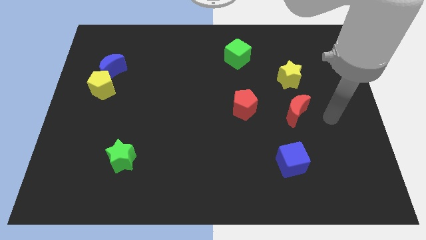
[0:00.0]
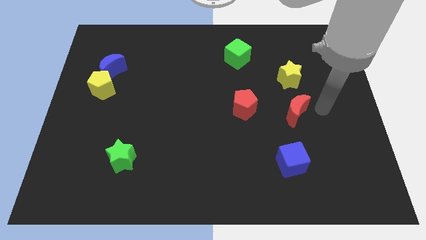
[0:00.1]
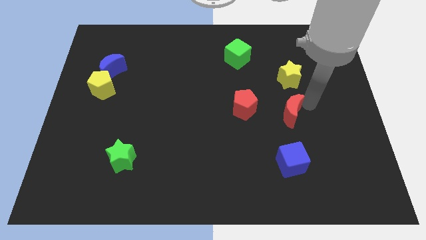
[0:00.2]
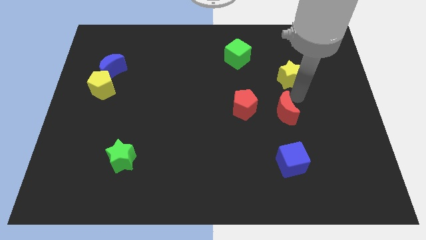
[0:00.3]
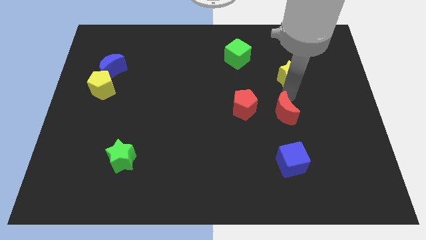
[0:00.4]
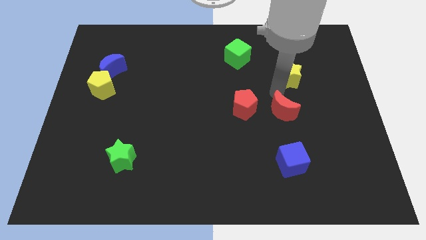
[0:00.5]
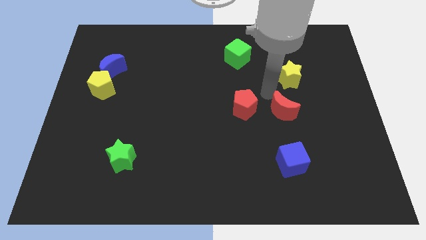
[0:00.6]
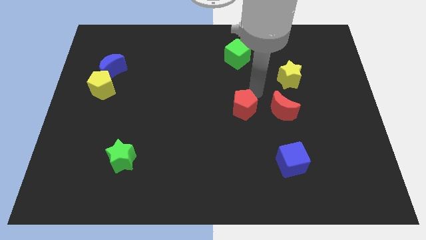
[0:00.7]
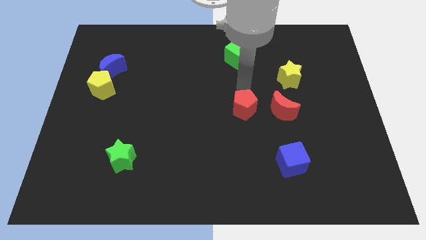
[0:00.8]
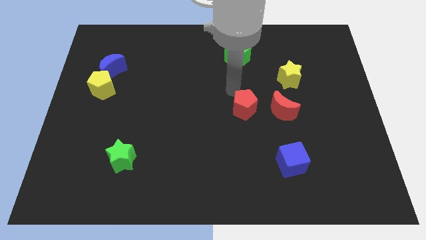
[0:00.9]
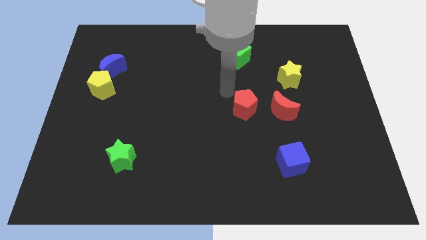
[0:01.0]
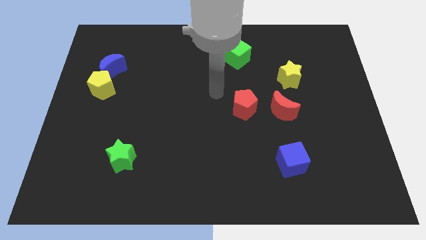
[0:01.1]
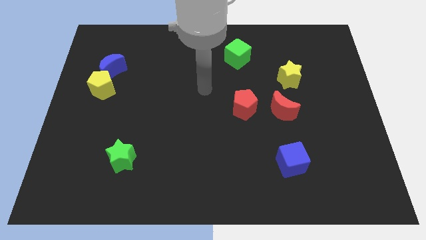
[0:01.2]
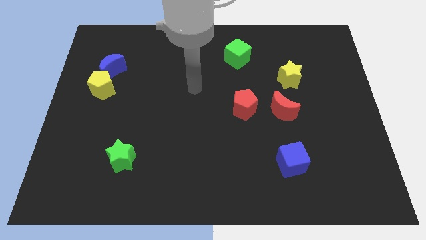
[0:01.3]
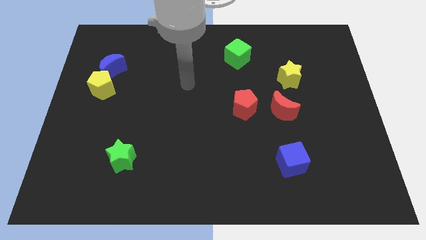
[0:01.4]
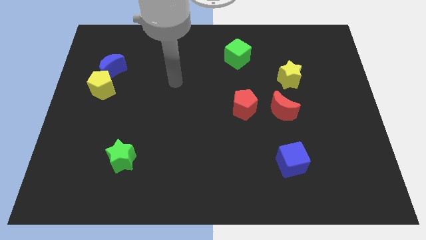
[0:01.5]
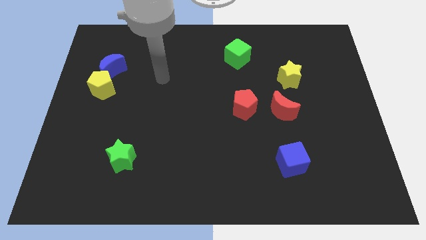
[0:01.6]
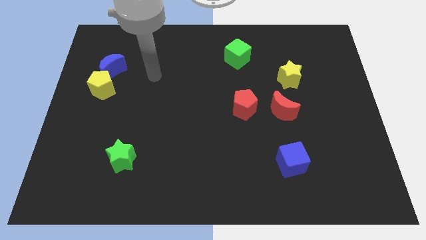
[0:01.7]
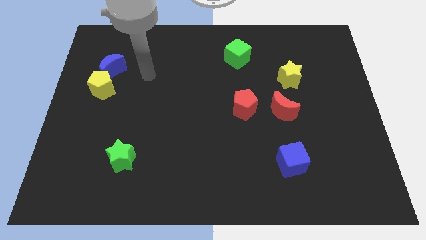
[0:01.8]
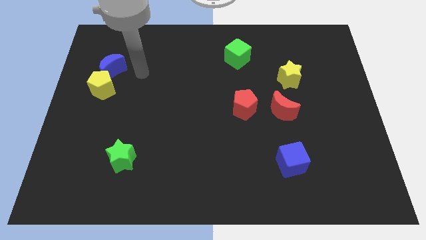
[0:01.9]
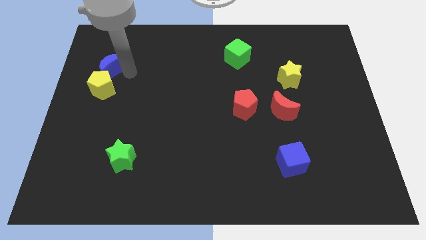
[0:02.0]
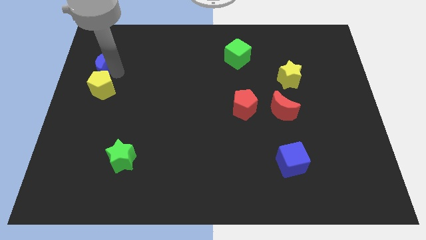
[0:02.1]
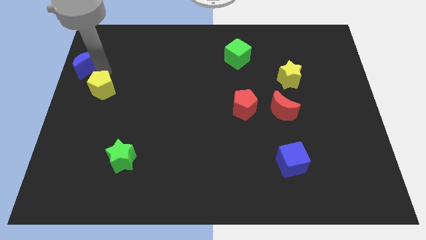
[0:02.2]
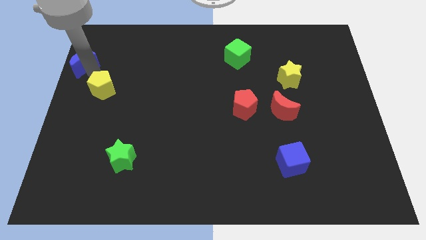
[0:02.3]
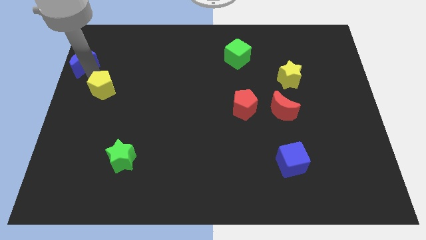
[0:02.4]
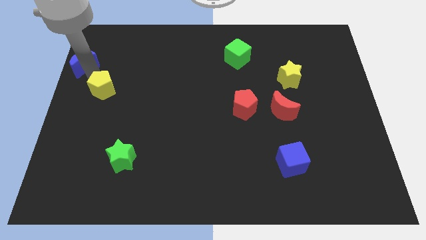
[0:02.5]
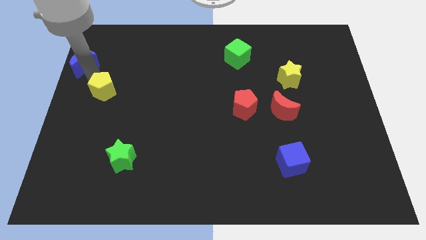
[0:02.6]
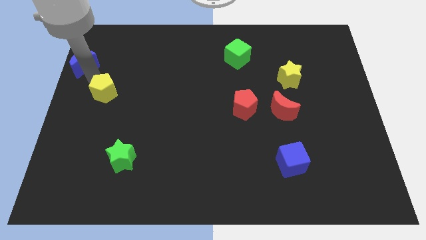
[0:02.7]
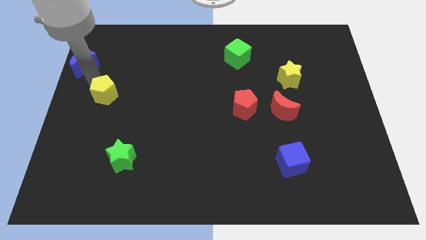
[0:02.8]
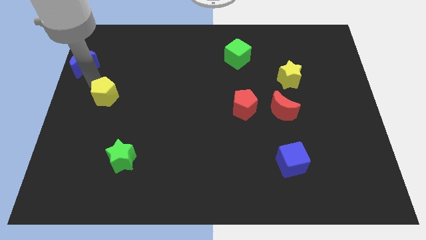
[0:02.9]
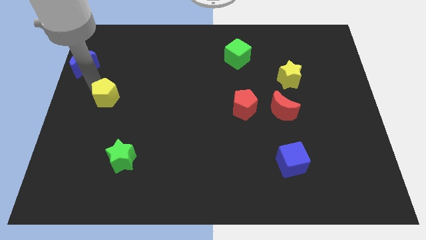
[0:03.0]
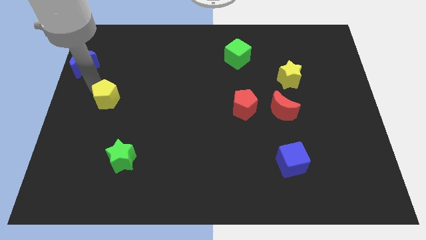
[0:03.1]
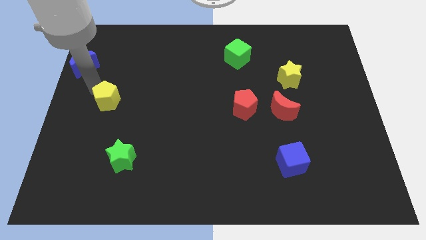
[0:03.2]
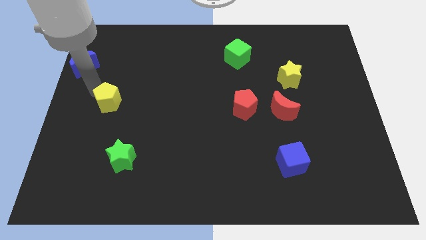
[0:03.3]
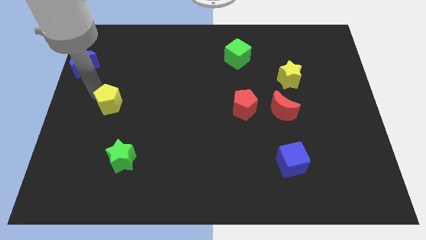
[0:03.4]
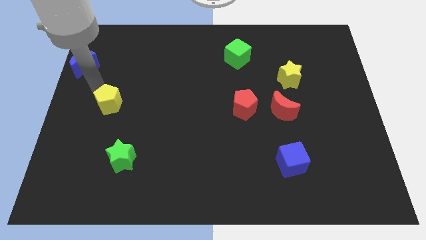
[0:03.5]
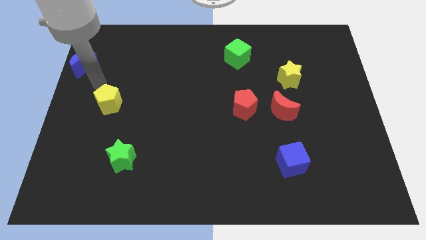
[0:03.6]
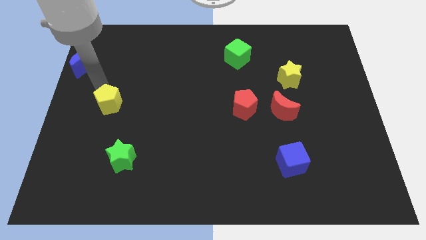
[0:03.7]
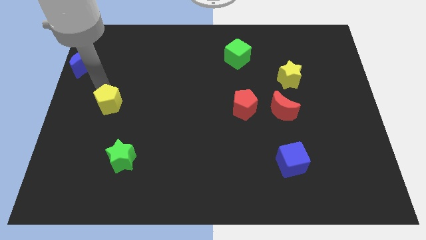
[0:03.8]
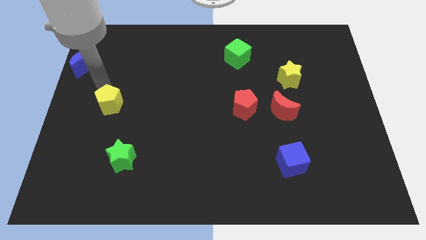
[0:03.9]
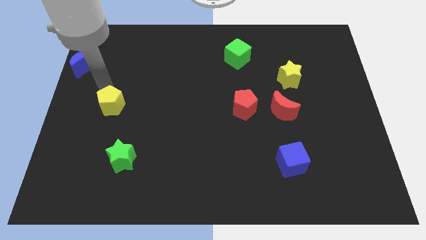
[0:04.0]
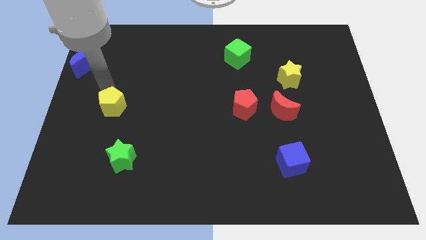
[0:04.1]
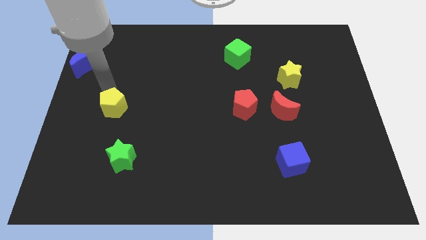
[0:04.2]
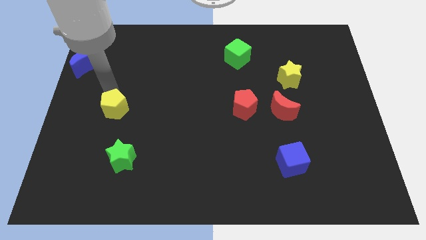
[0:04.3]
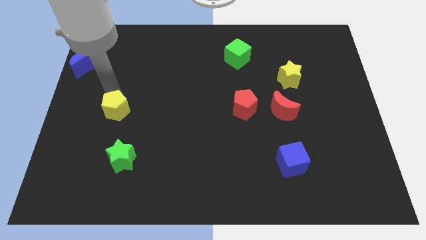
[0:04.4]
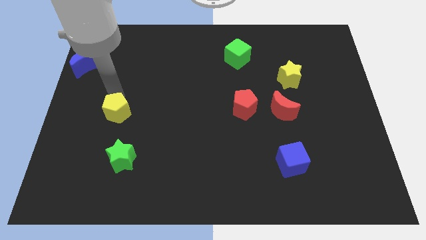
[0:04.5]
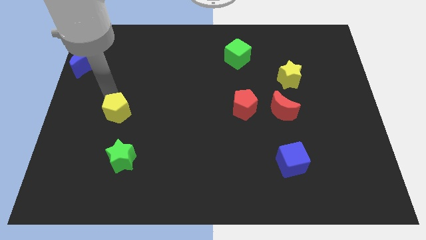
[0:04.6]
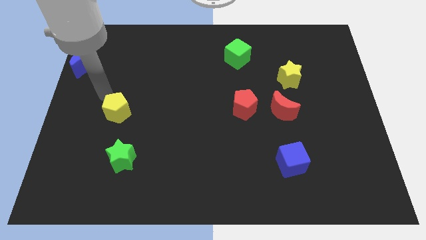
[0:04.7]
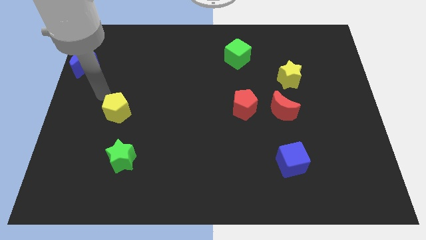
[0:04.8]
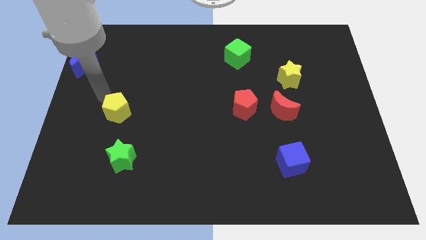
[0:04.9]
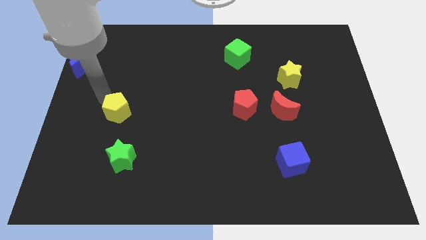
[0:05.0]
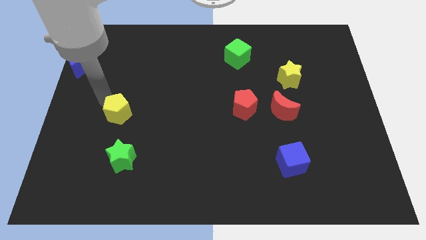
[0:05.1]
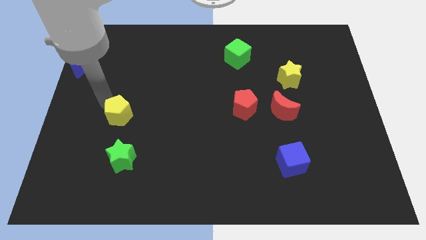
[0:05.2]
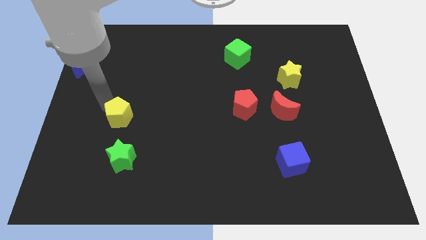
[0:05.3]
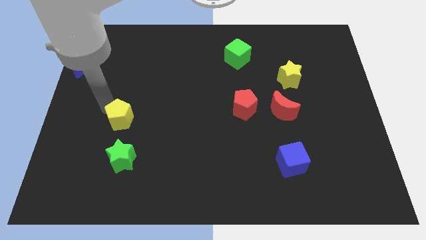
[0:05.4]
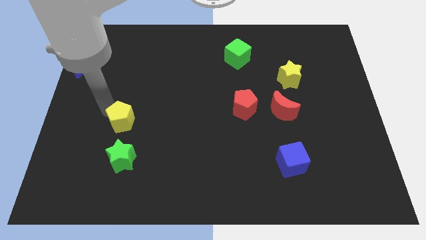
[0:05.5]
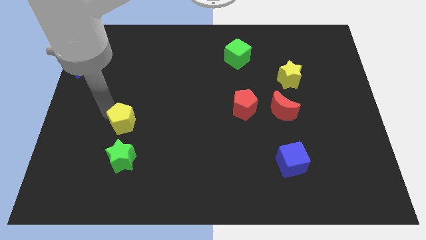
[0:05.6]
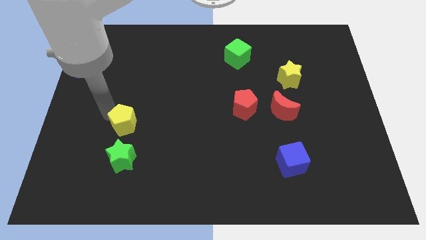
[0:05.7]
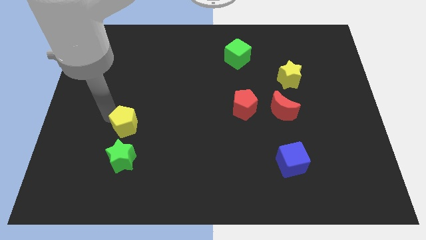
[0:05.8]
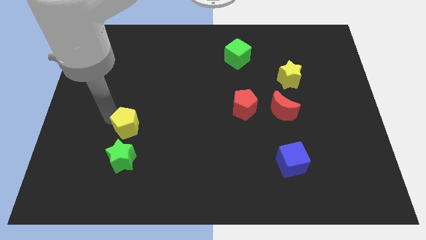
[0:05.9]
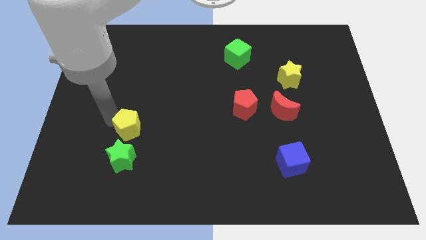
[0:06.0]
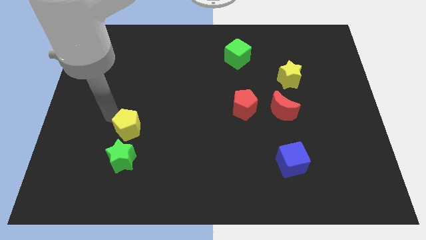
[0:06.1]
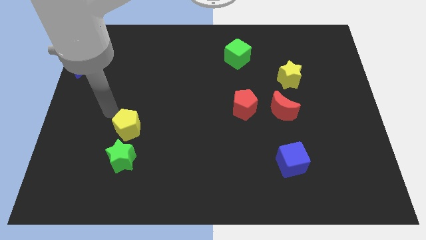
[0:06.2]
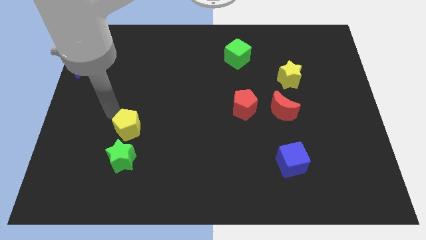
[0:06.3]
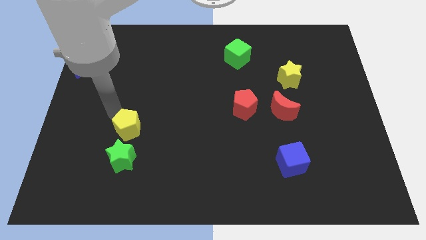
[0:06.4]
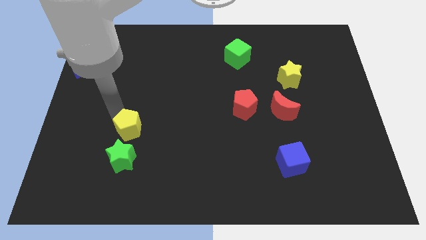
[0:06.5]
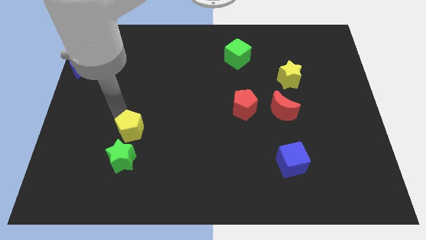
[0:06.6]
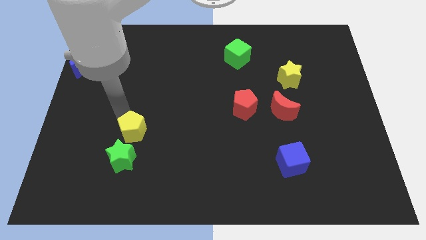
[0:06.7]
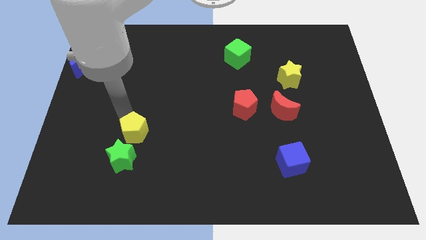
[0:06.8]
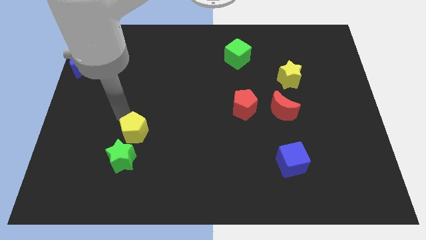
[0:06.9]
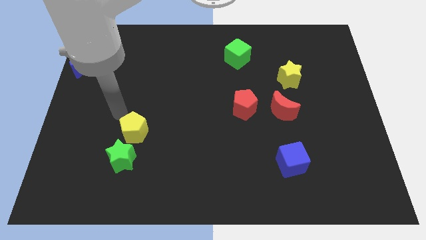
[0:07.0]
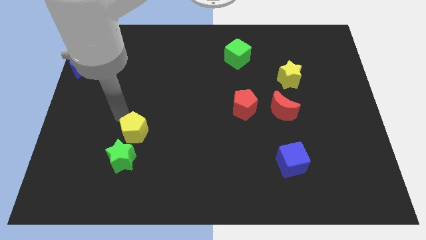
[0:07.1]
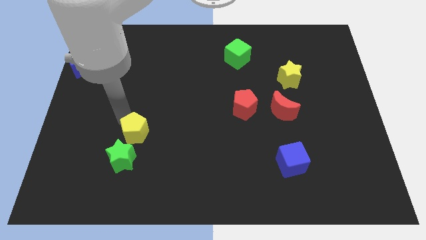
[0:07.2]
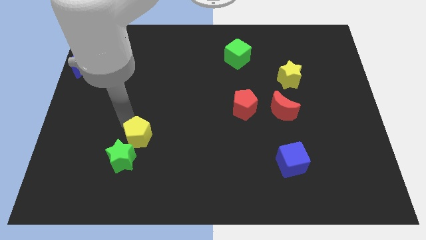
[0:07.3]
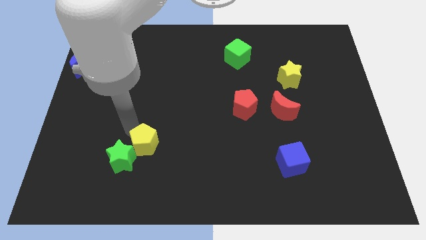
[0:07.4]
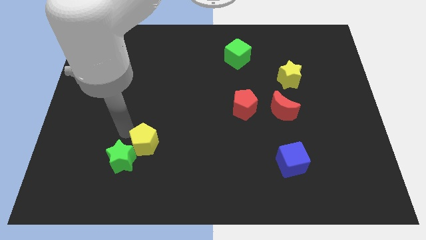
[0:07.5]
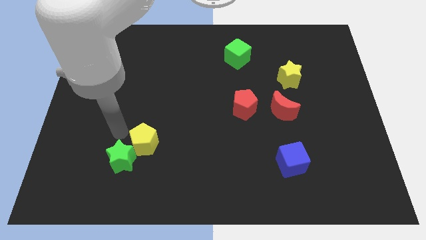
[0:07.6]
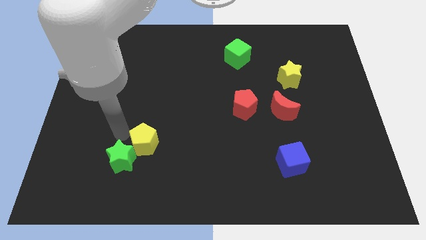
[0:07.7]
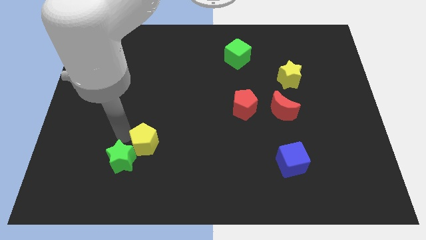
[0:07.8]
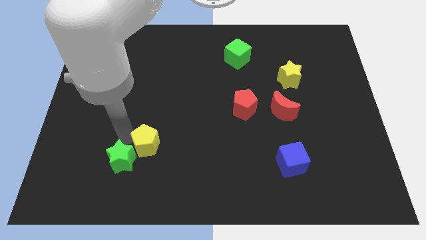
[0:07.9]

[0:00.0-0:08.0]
push the yellow pentagon diagonally down and right
